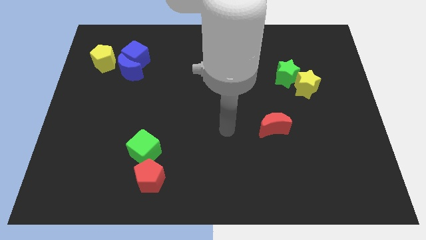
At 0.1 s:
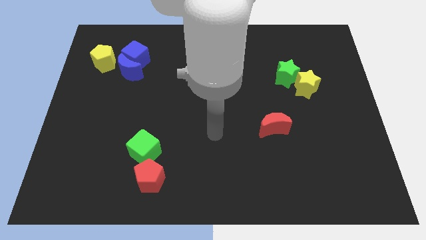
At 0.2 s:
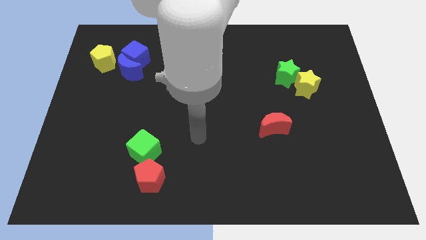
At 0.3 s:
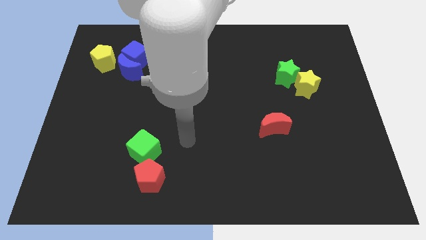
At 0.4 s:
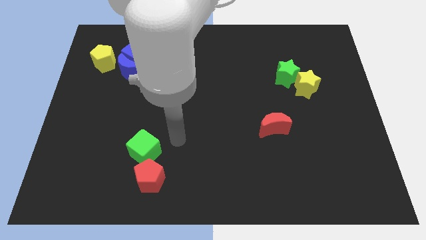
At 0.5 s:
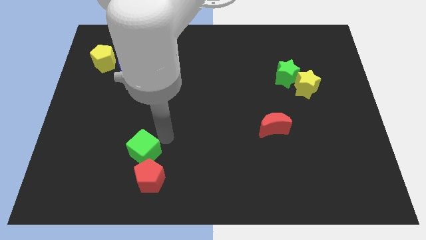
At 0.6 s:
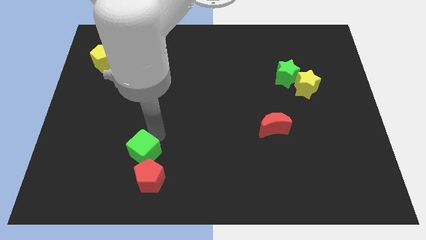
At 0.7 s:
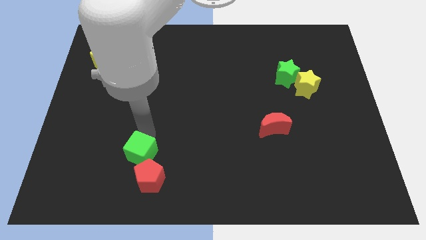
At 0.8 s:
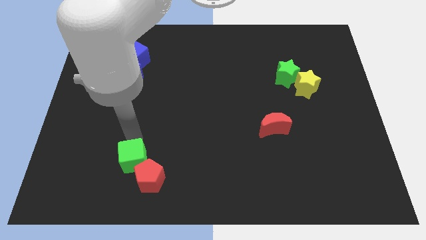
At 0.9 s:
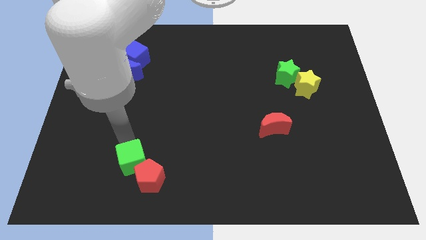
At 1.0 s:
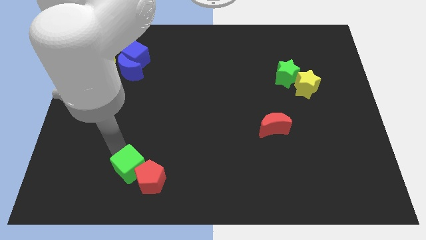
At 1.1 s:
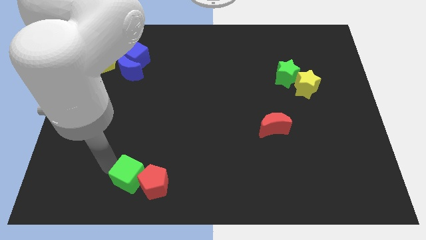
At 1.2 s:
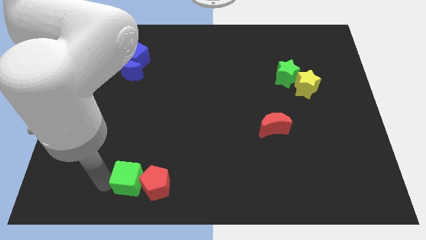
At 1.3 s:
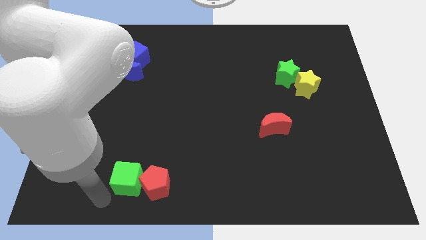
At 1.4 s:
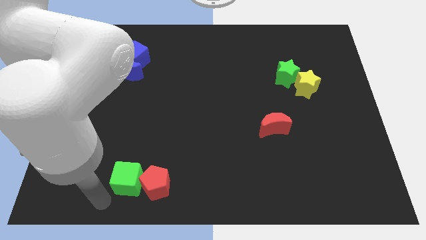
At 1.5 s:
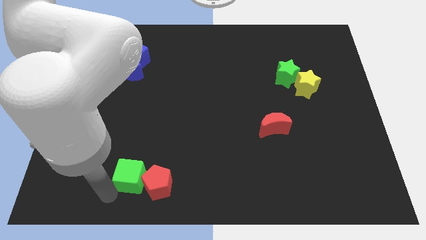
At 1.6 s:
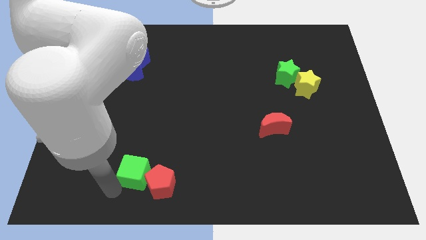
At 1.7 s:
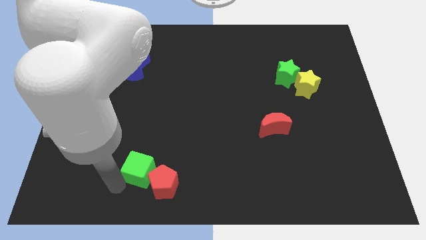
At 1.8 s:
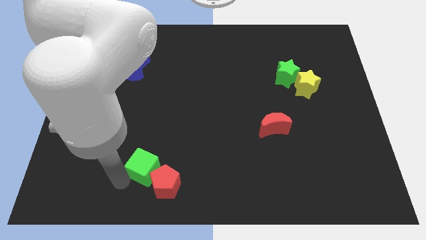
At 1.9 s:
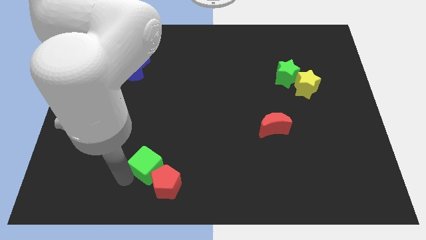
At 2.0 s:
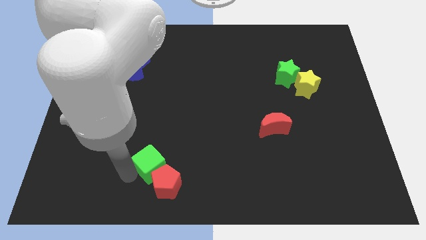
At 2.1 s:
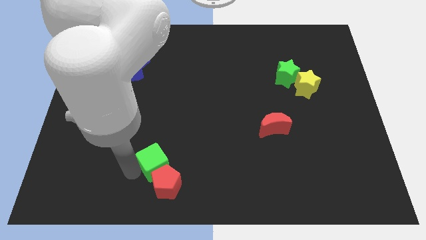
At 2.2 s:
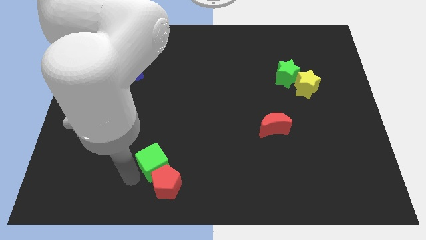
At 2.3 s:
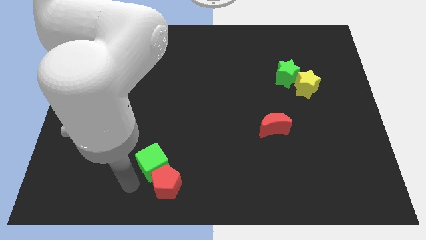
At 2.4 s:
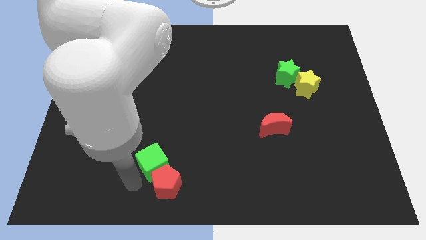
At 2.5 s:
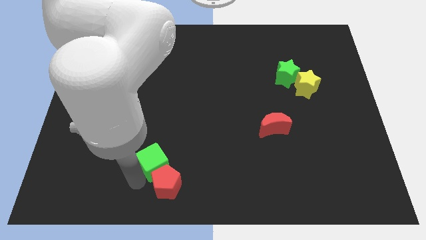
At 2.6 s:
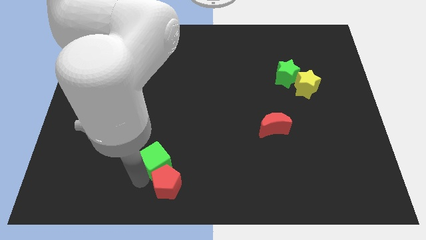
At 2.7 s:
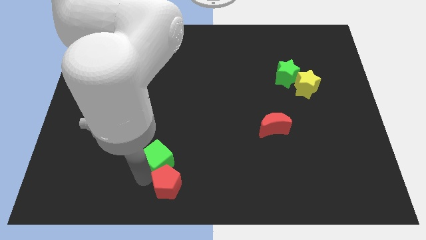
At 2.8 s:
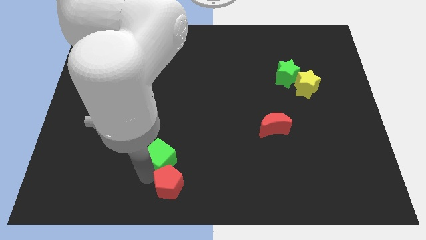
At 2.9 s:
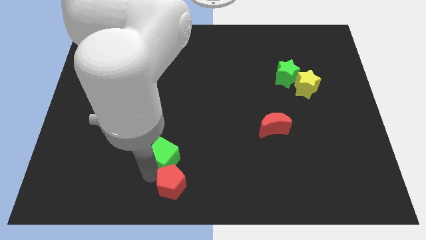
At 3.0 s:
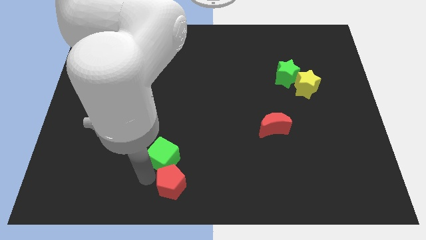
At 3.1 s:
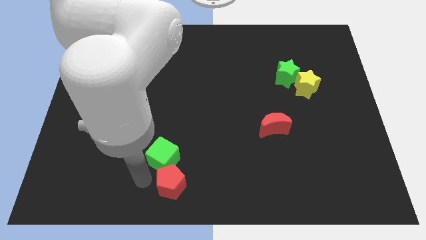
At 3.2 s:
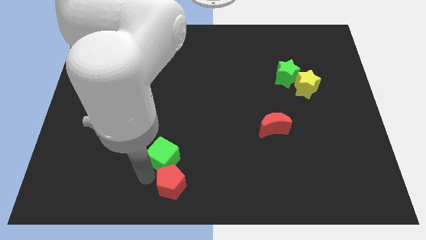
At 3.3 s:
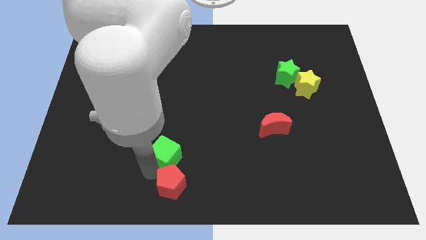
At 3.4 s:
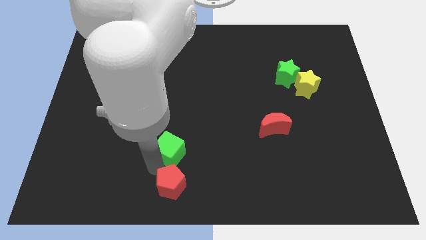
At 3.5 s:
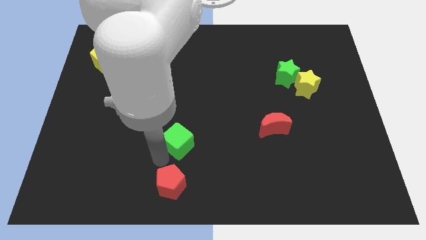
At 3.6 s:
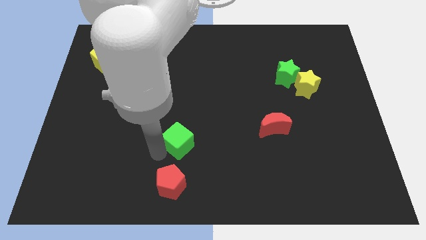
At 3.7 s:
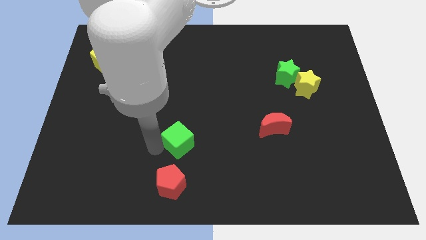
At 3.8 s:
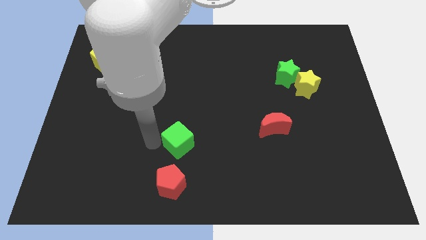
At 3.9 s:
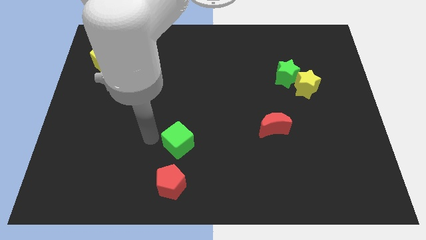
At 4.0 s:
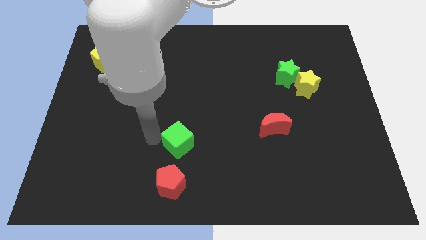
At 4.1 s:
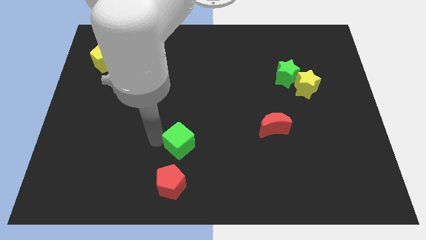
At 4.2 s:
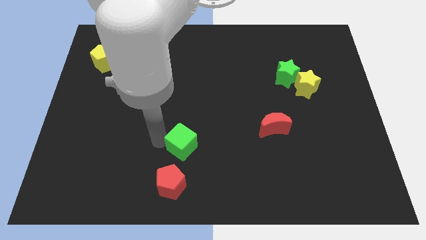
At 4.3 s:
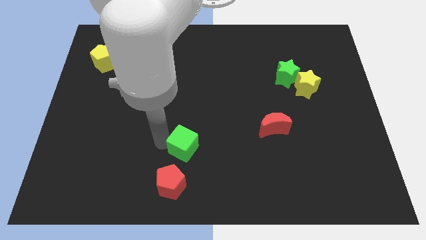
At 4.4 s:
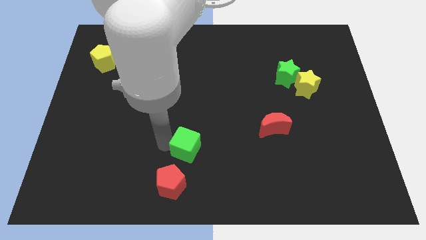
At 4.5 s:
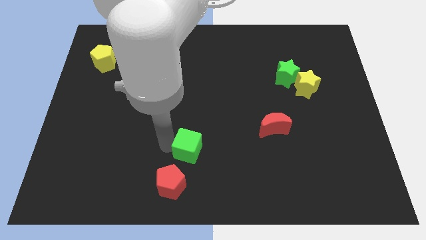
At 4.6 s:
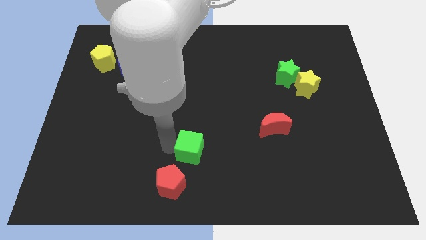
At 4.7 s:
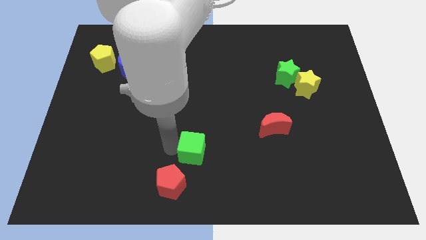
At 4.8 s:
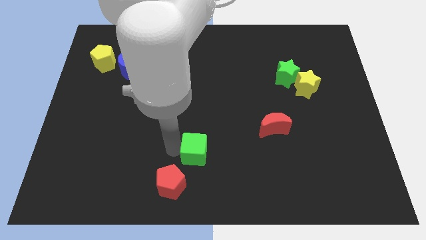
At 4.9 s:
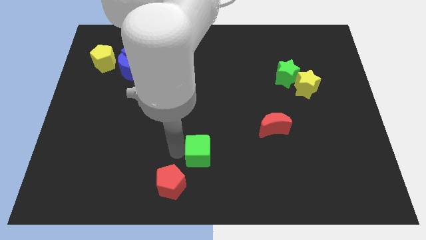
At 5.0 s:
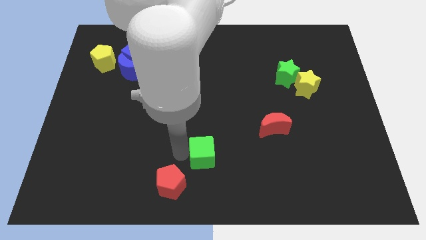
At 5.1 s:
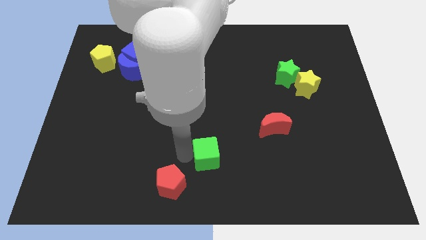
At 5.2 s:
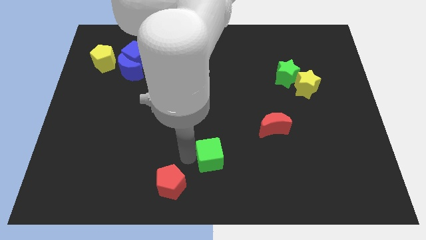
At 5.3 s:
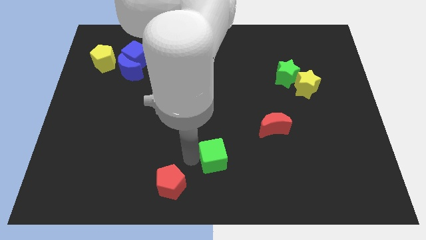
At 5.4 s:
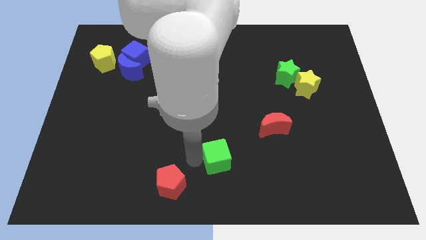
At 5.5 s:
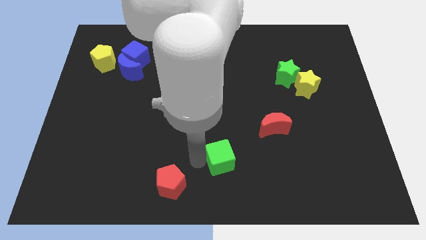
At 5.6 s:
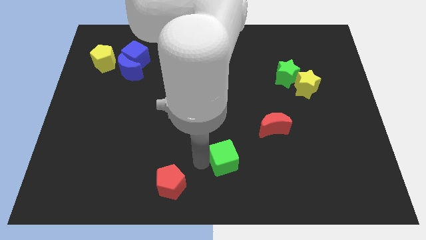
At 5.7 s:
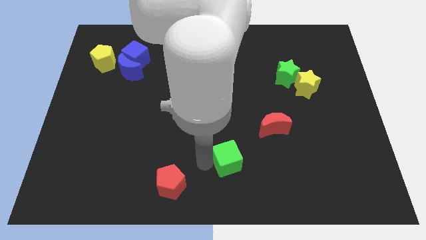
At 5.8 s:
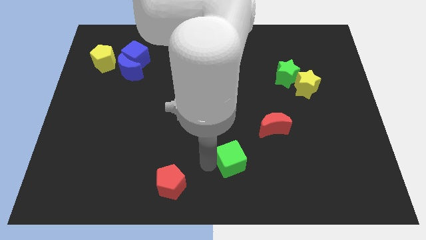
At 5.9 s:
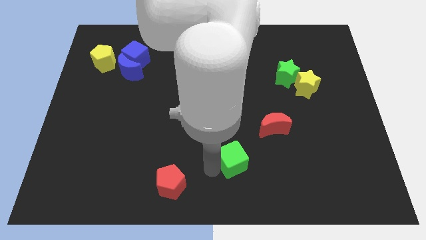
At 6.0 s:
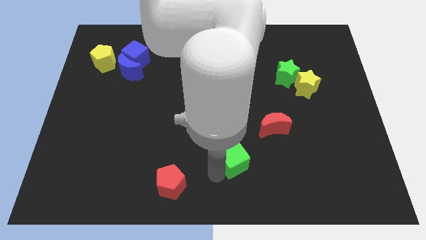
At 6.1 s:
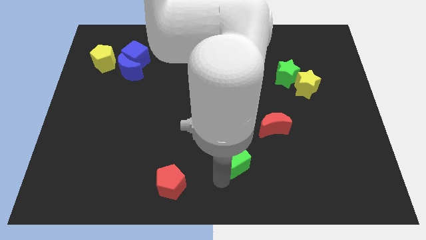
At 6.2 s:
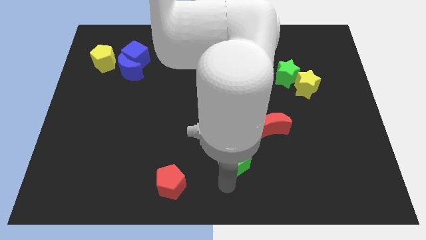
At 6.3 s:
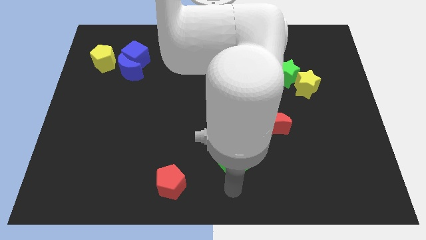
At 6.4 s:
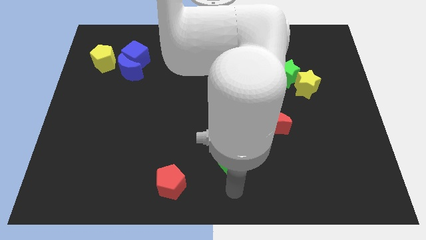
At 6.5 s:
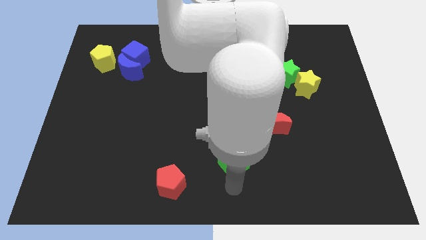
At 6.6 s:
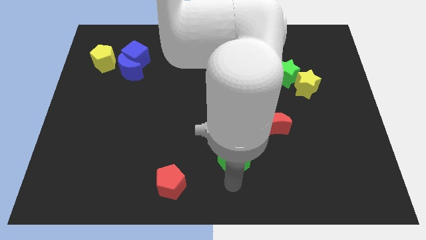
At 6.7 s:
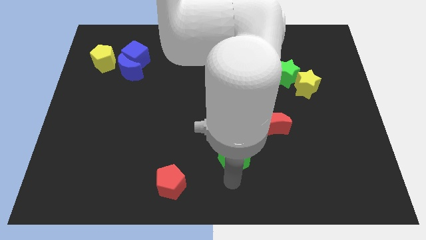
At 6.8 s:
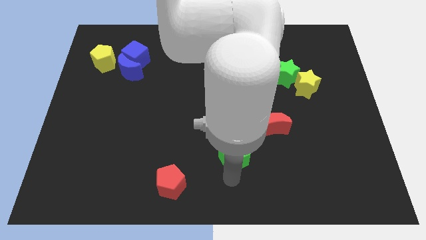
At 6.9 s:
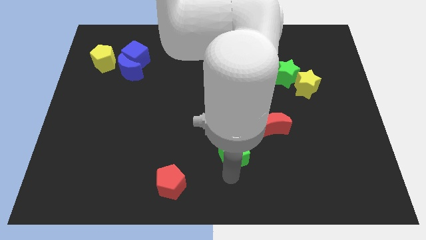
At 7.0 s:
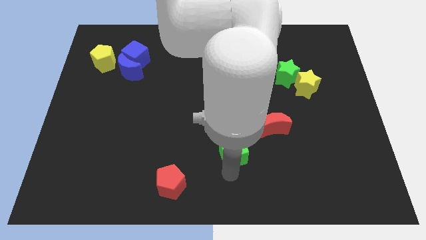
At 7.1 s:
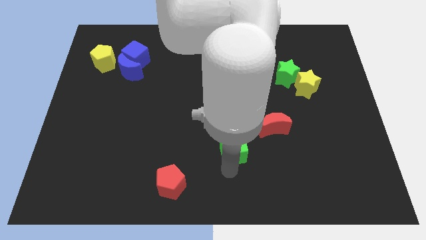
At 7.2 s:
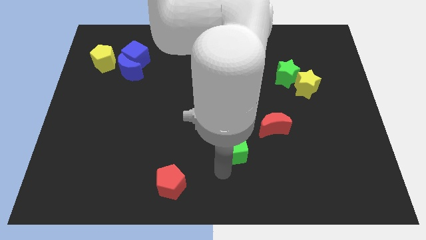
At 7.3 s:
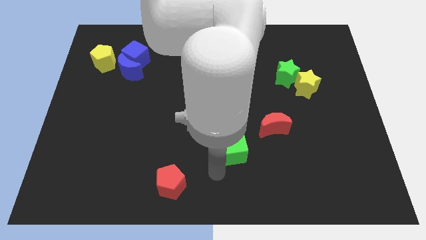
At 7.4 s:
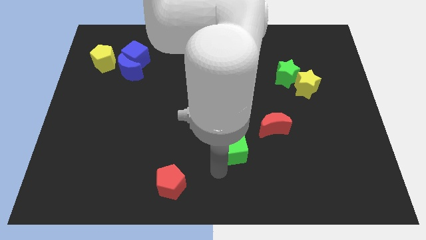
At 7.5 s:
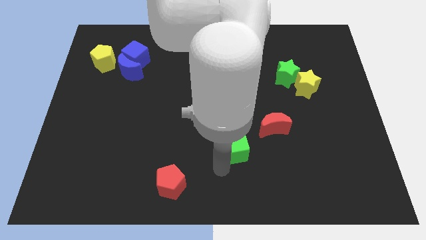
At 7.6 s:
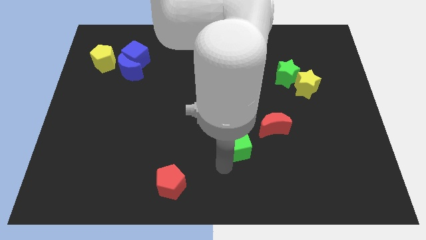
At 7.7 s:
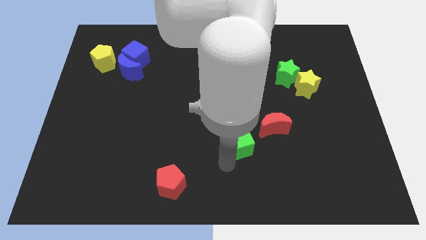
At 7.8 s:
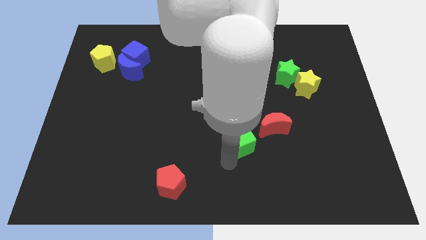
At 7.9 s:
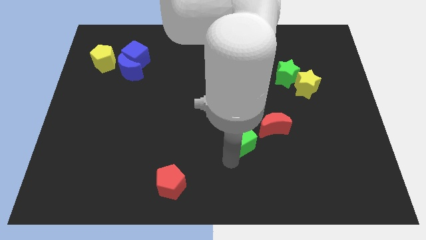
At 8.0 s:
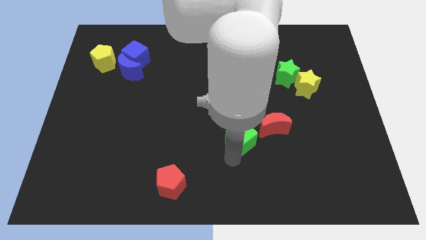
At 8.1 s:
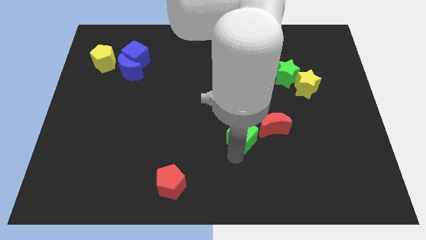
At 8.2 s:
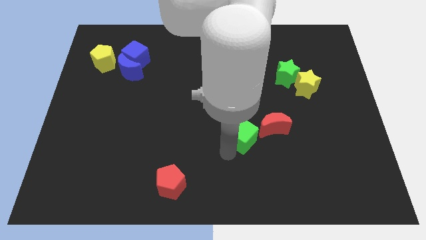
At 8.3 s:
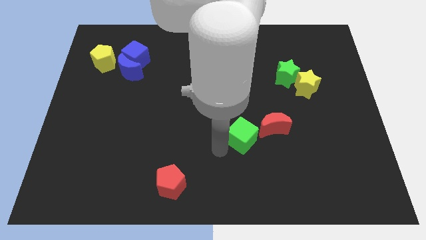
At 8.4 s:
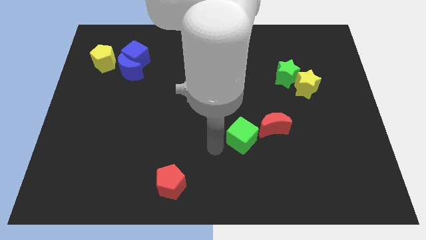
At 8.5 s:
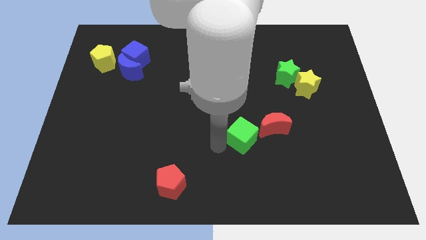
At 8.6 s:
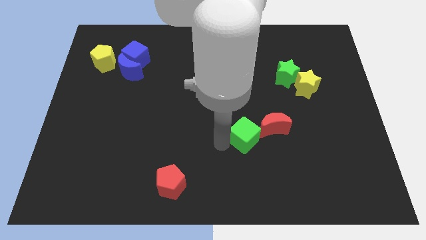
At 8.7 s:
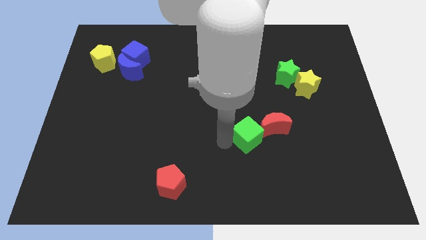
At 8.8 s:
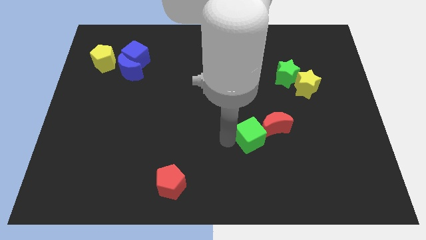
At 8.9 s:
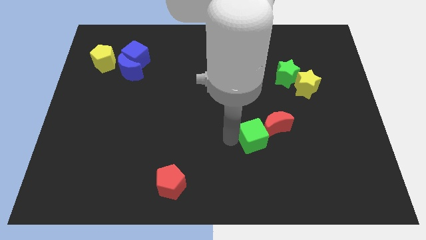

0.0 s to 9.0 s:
push the green cube close to the red moon
